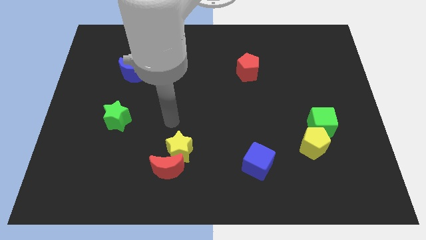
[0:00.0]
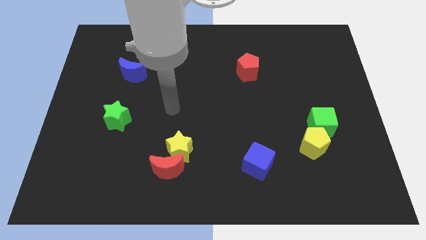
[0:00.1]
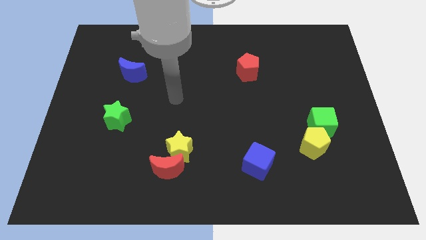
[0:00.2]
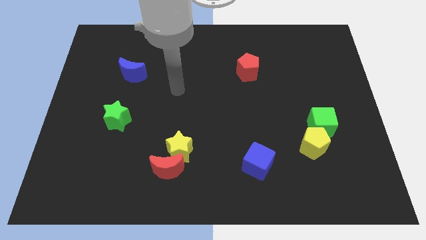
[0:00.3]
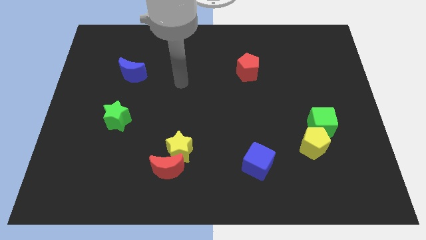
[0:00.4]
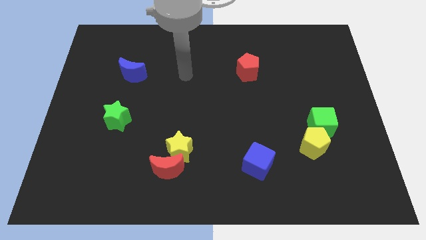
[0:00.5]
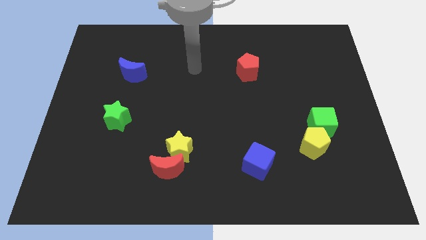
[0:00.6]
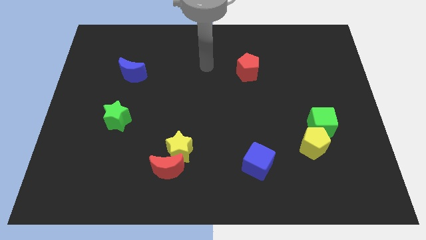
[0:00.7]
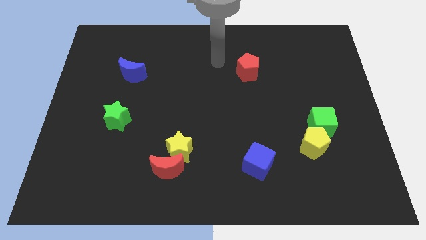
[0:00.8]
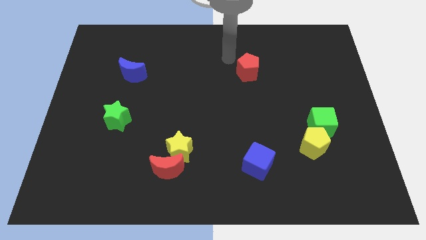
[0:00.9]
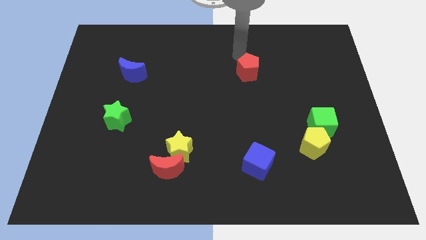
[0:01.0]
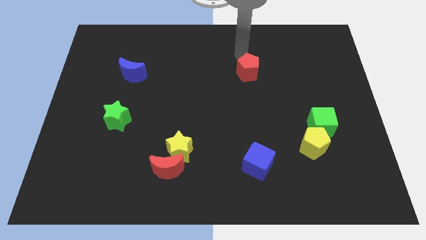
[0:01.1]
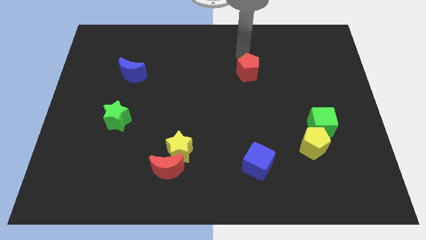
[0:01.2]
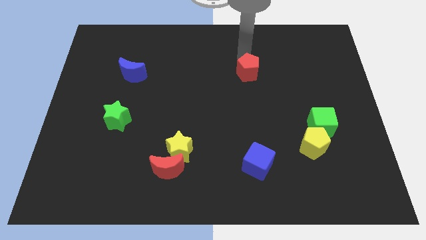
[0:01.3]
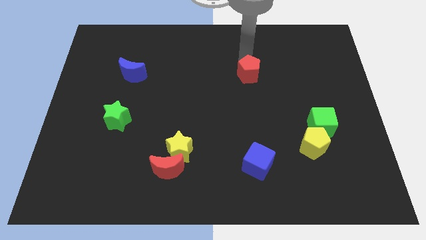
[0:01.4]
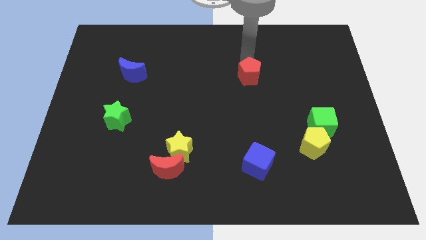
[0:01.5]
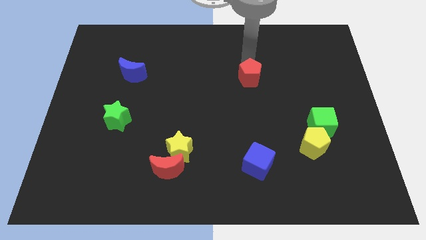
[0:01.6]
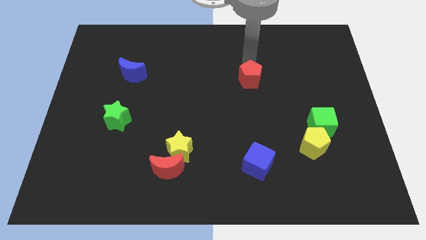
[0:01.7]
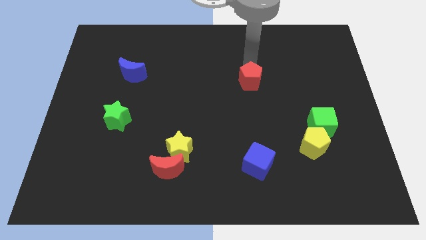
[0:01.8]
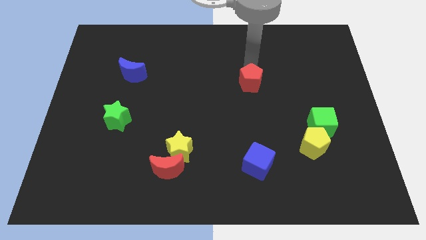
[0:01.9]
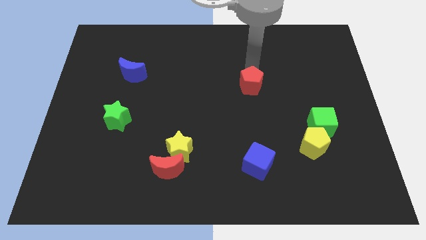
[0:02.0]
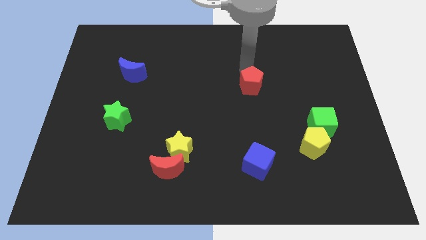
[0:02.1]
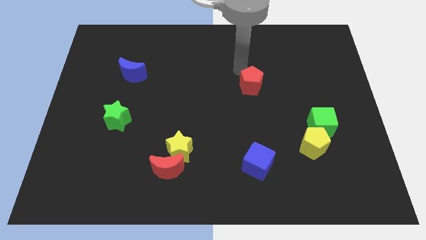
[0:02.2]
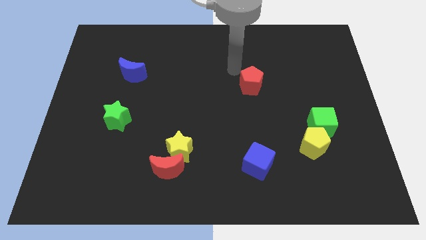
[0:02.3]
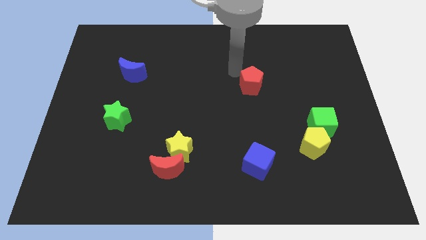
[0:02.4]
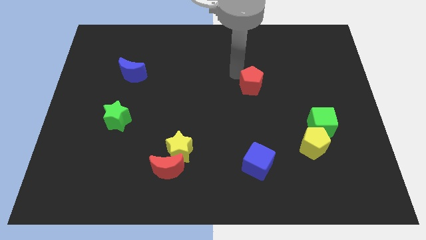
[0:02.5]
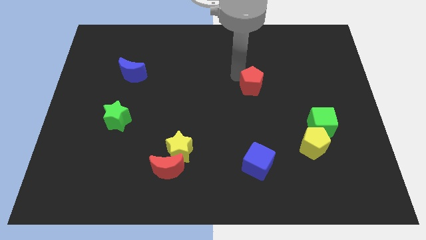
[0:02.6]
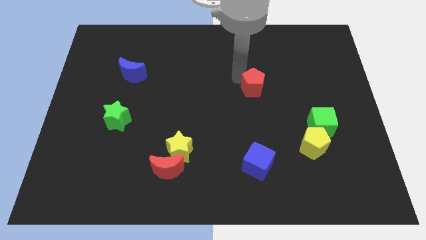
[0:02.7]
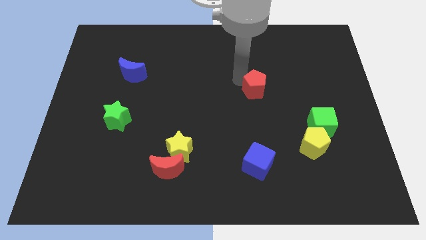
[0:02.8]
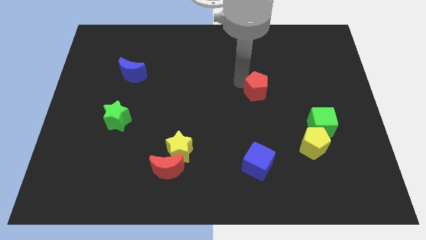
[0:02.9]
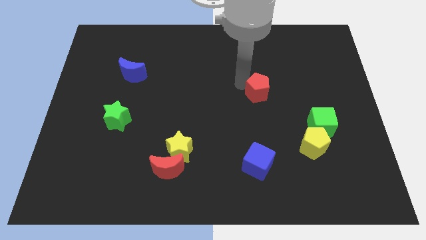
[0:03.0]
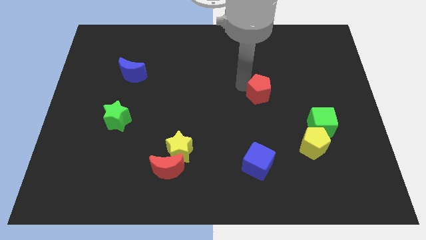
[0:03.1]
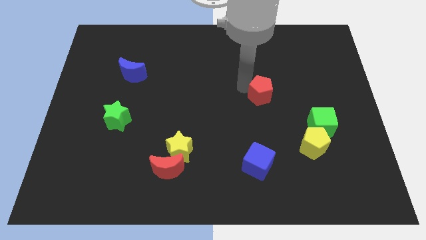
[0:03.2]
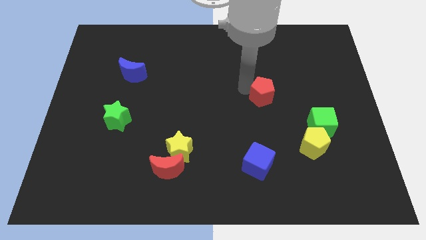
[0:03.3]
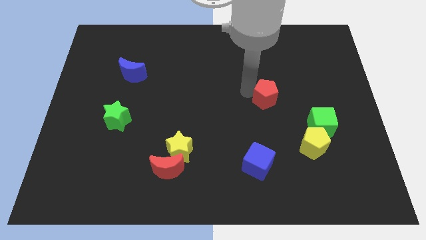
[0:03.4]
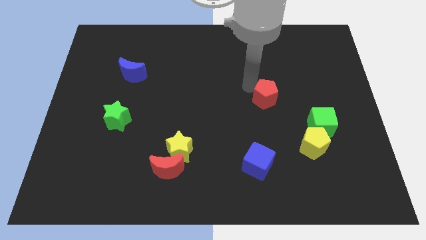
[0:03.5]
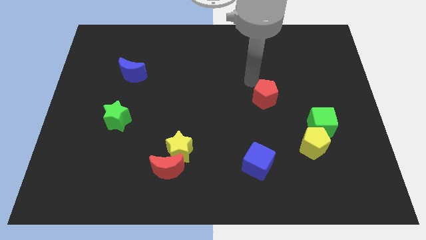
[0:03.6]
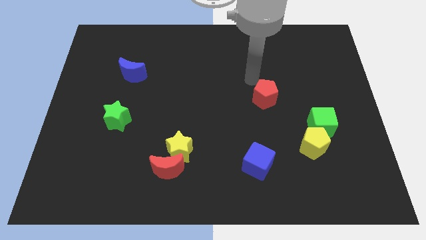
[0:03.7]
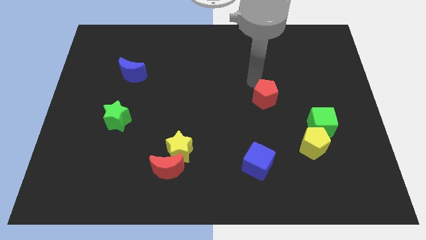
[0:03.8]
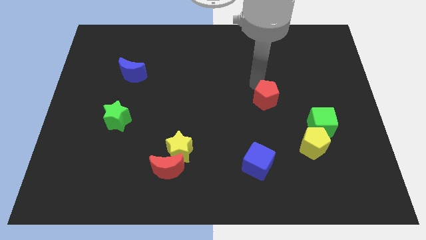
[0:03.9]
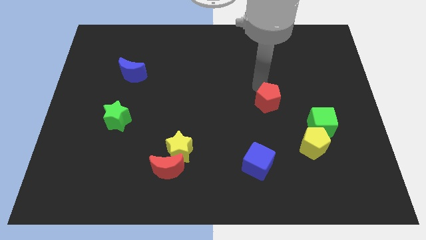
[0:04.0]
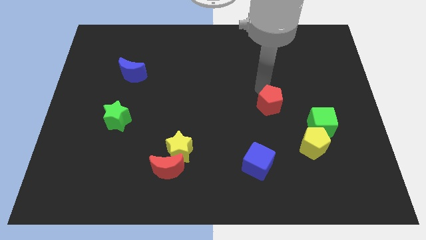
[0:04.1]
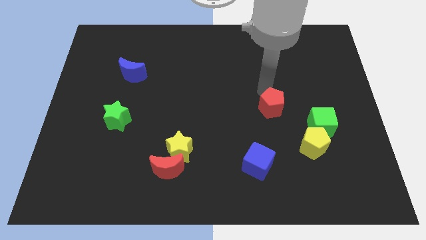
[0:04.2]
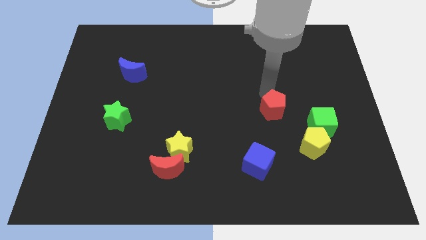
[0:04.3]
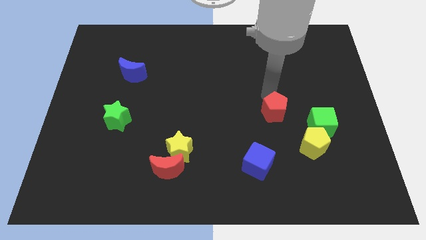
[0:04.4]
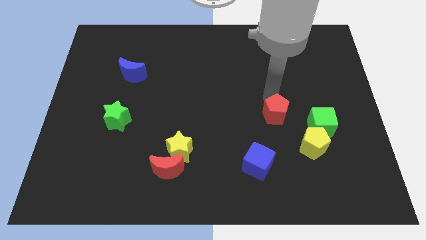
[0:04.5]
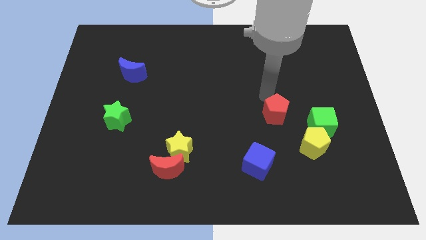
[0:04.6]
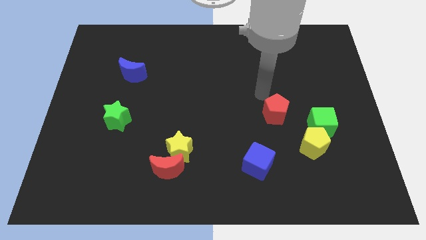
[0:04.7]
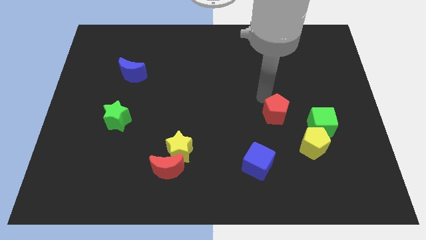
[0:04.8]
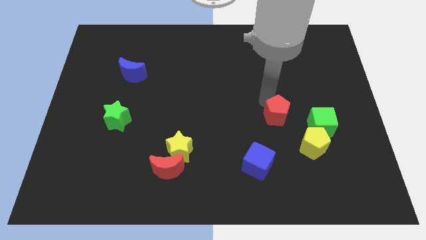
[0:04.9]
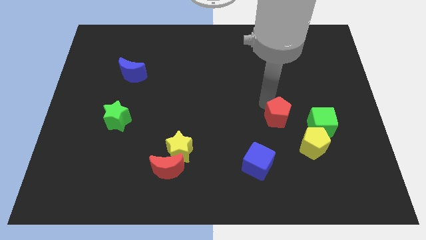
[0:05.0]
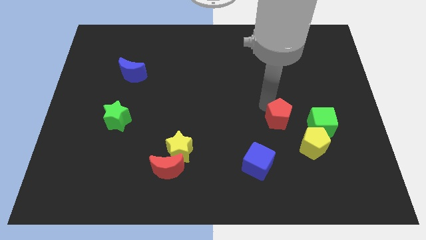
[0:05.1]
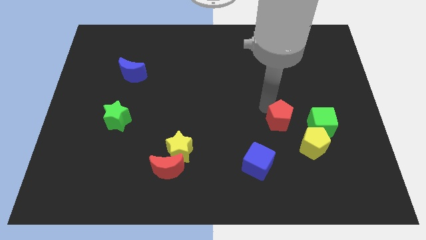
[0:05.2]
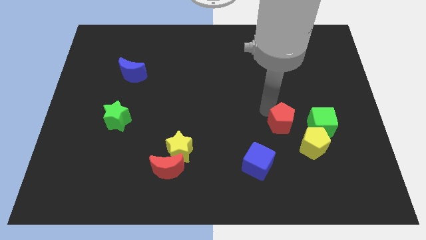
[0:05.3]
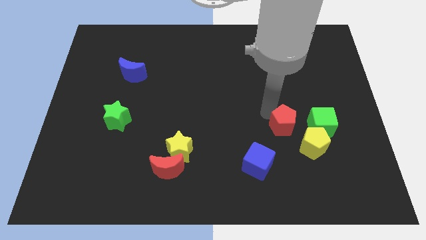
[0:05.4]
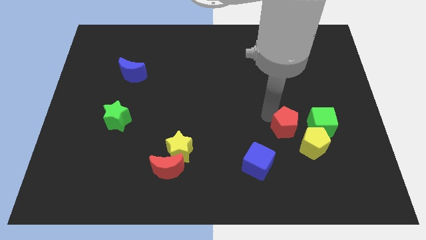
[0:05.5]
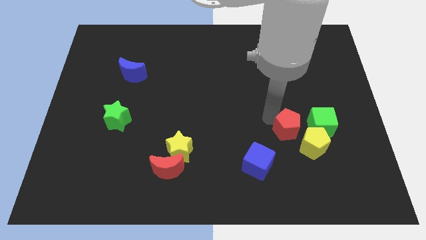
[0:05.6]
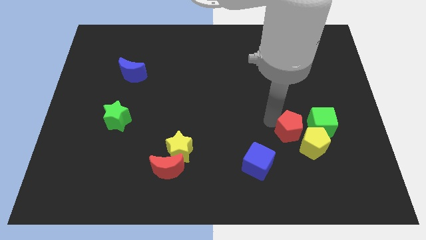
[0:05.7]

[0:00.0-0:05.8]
push the red pentagon diagonally down and to the left of the green cube

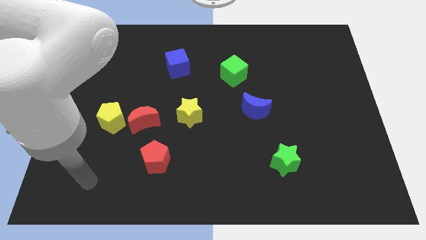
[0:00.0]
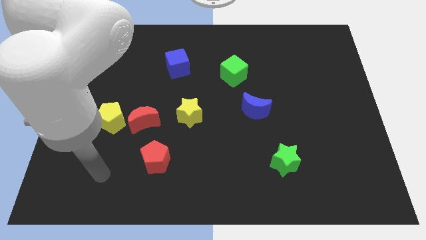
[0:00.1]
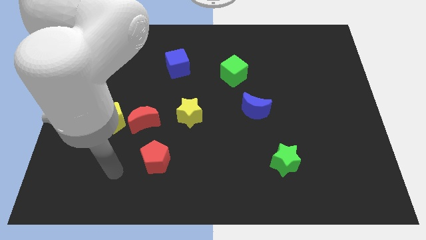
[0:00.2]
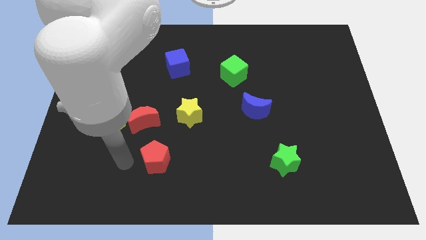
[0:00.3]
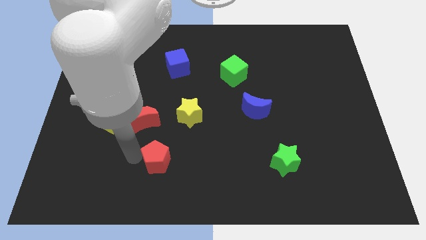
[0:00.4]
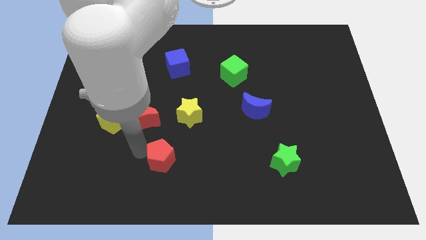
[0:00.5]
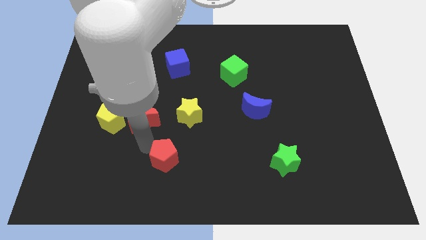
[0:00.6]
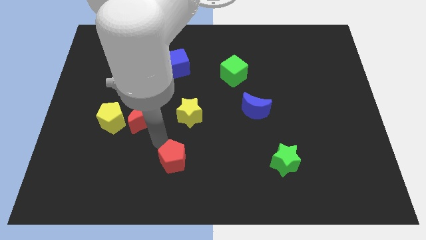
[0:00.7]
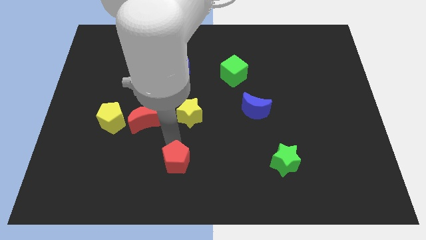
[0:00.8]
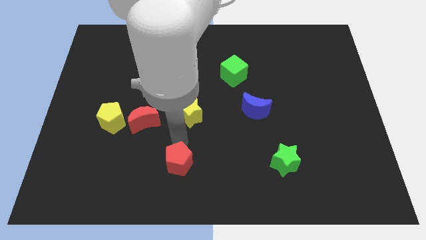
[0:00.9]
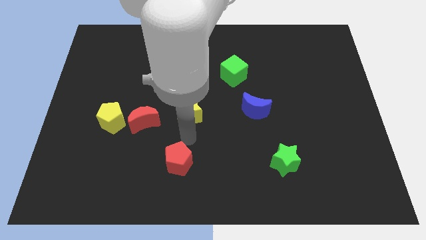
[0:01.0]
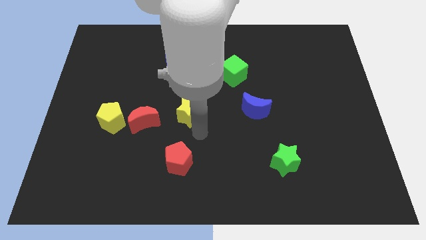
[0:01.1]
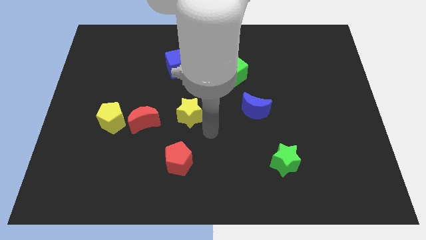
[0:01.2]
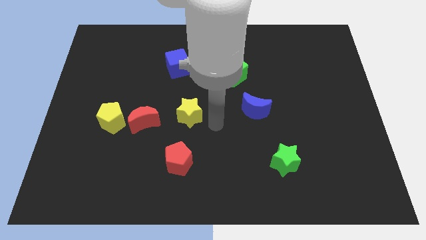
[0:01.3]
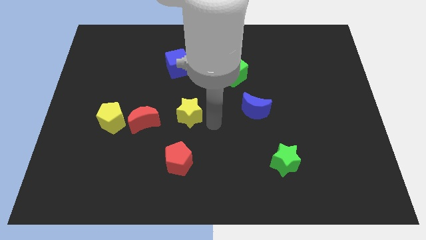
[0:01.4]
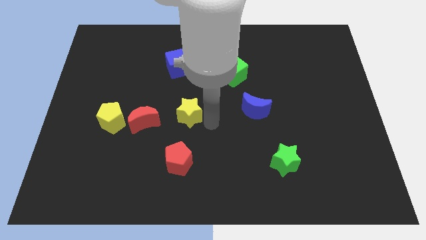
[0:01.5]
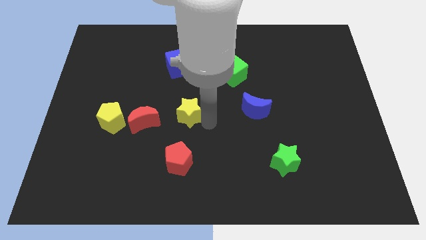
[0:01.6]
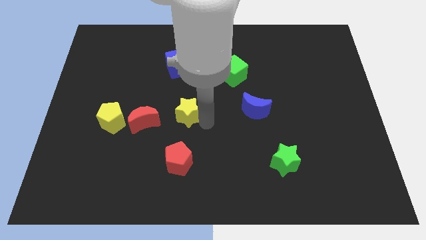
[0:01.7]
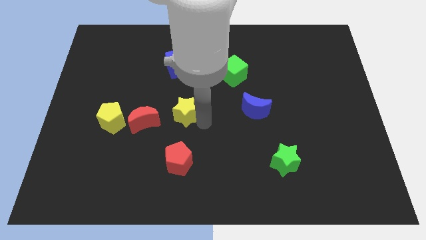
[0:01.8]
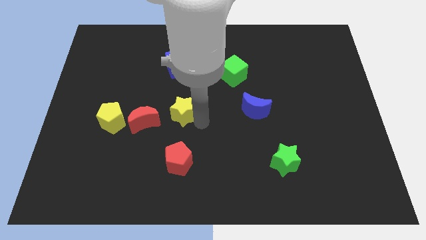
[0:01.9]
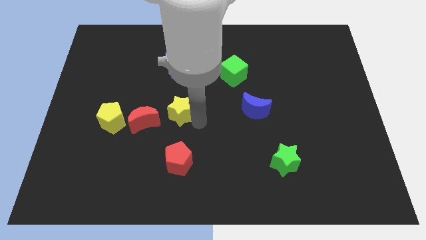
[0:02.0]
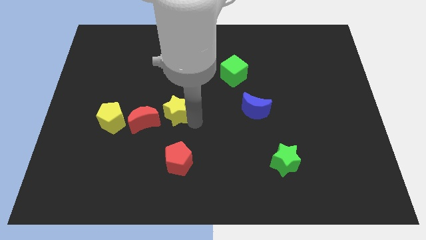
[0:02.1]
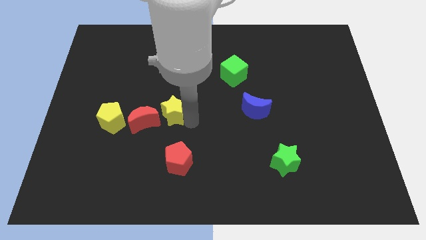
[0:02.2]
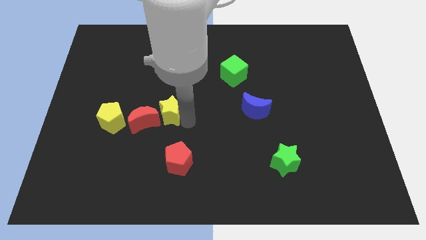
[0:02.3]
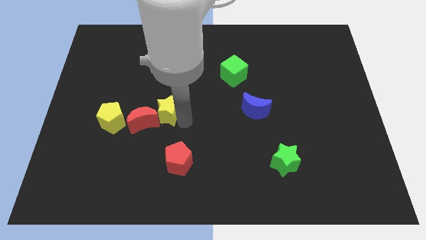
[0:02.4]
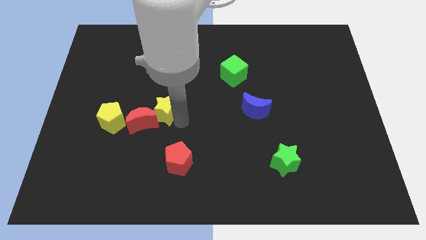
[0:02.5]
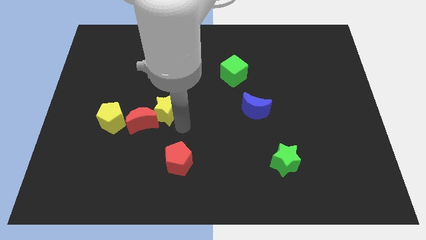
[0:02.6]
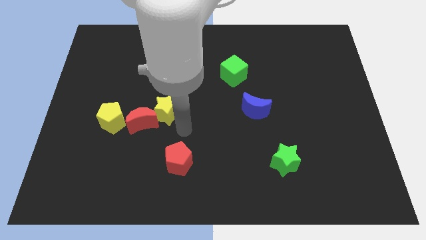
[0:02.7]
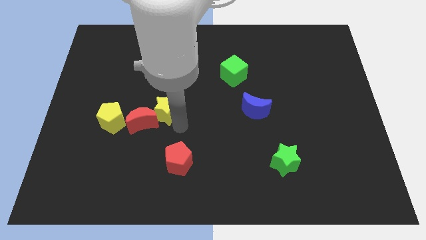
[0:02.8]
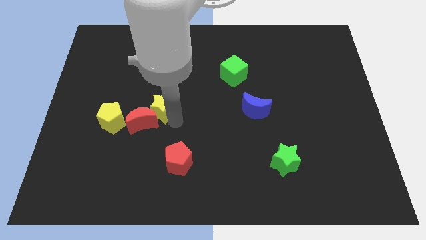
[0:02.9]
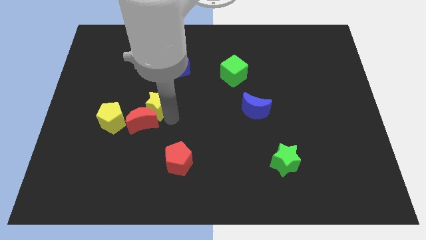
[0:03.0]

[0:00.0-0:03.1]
slide the yellow star to the top right of the yellow pentagon
